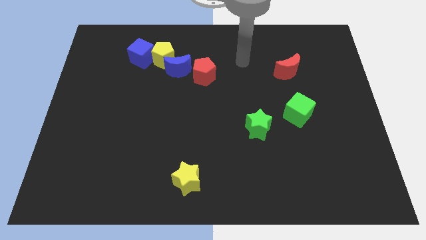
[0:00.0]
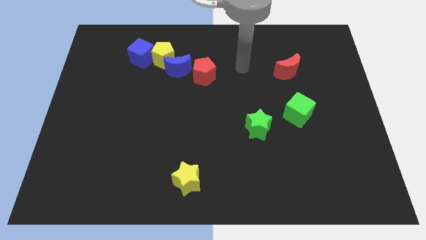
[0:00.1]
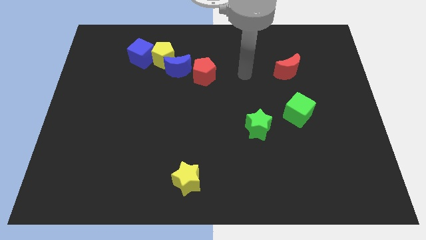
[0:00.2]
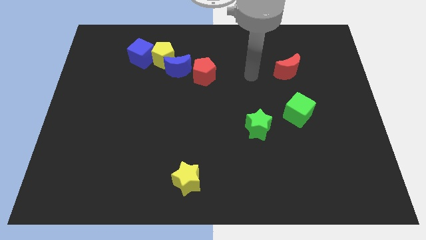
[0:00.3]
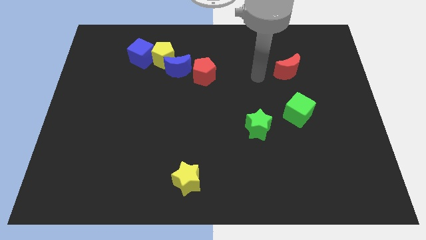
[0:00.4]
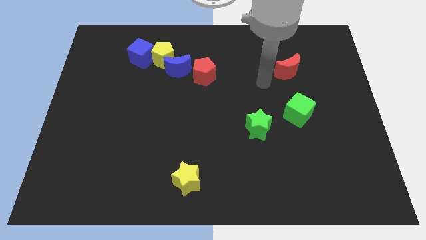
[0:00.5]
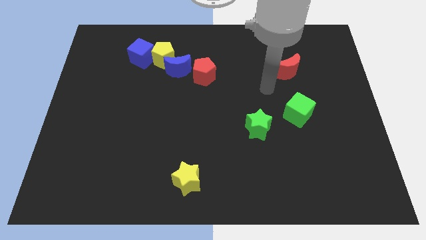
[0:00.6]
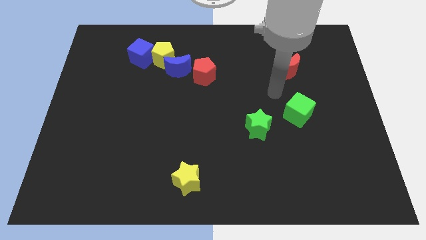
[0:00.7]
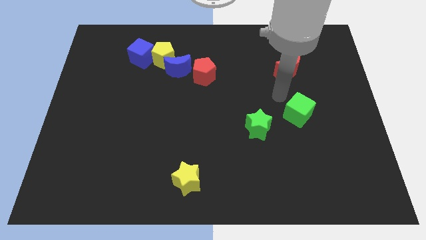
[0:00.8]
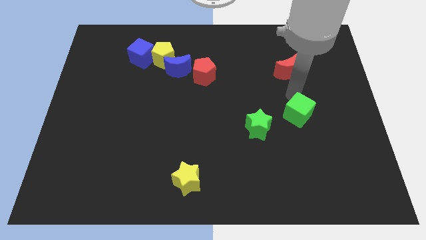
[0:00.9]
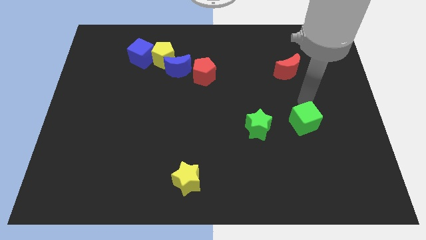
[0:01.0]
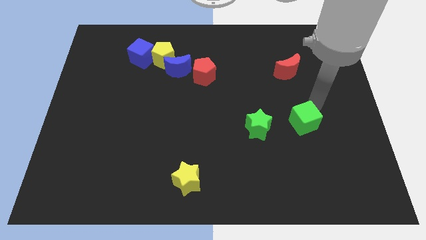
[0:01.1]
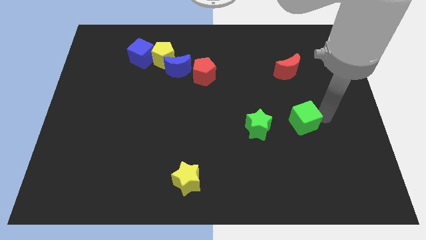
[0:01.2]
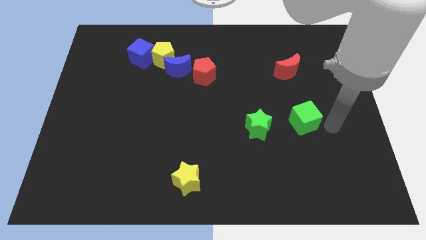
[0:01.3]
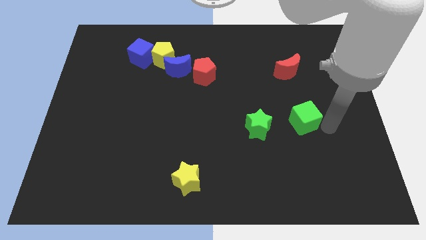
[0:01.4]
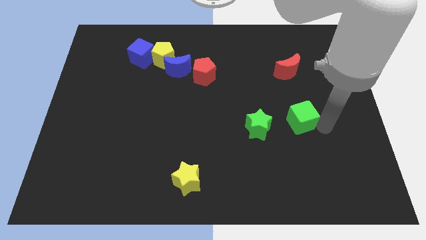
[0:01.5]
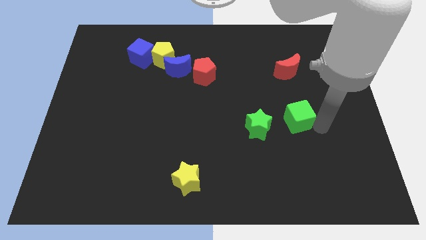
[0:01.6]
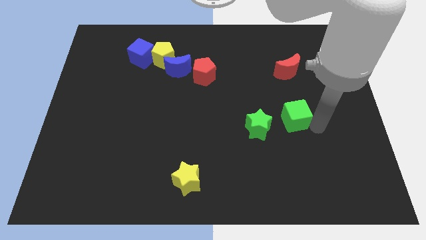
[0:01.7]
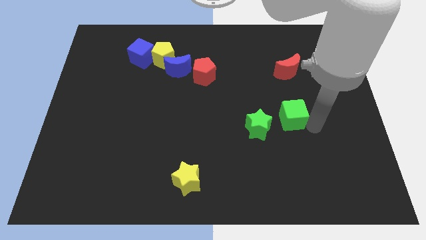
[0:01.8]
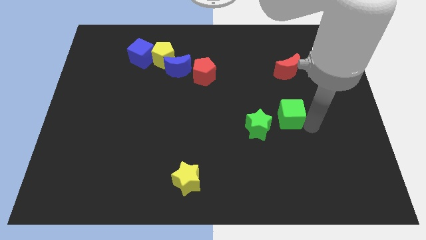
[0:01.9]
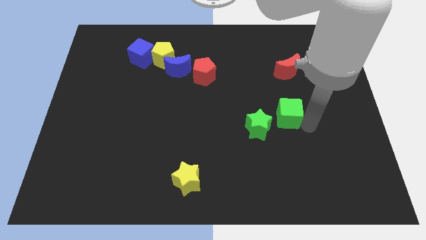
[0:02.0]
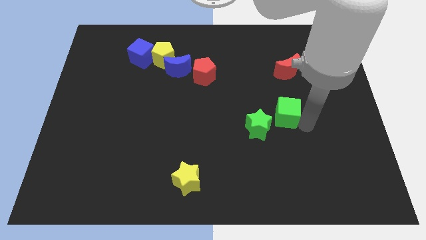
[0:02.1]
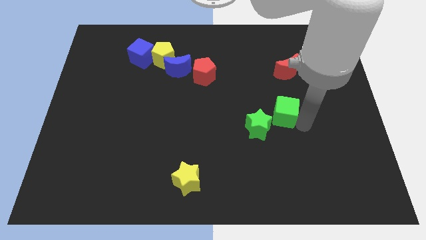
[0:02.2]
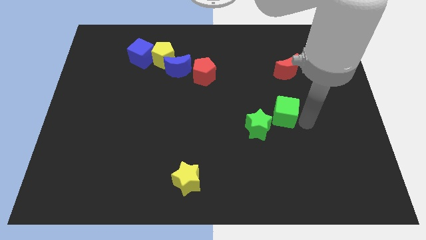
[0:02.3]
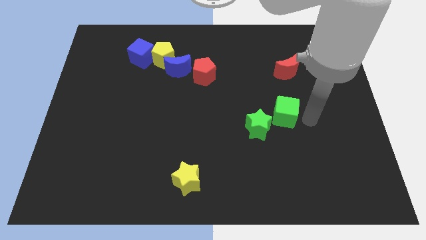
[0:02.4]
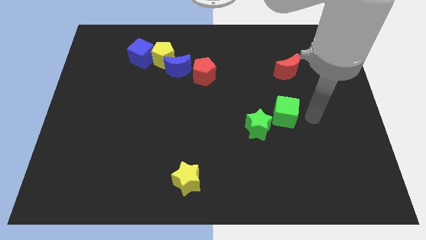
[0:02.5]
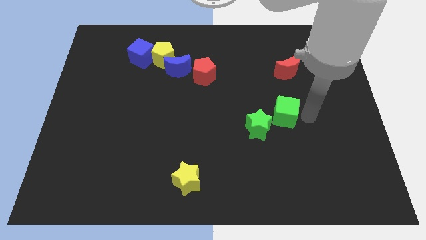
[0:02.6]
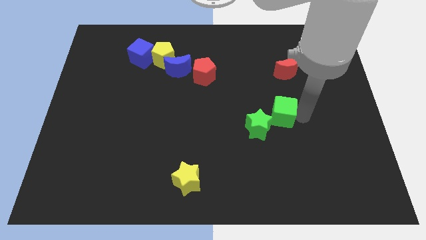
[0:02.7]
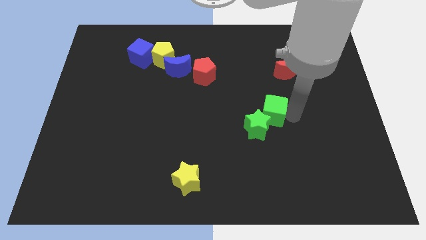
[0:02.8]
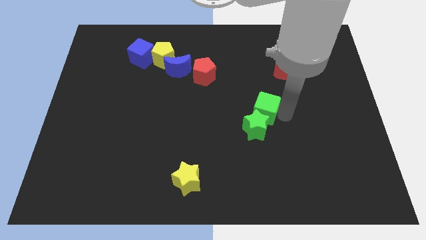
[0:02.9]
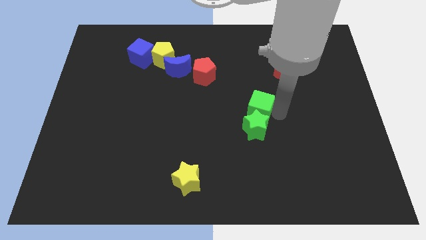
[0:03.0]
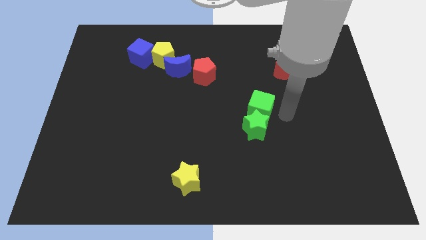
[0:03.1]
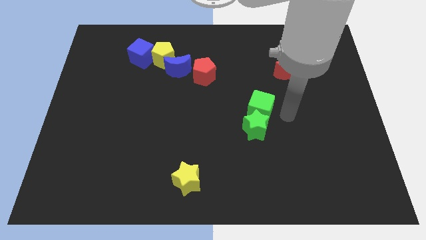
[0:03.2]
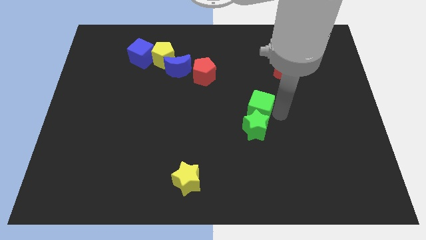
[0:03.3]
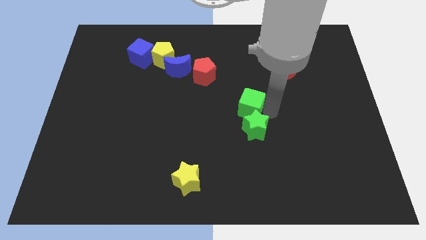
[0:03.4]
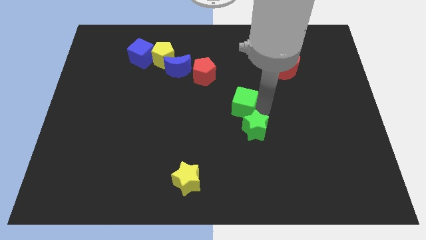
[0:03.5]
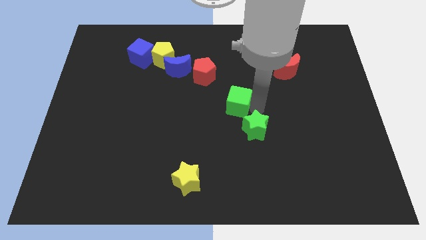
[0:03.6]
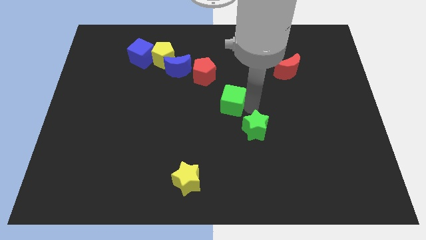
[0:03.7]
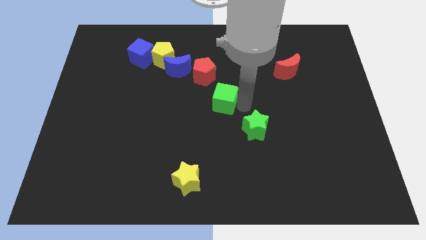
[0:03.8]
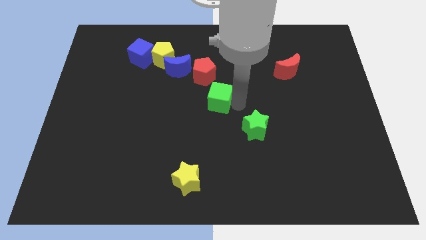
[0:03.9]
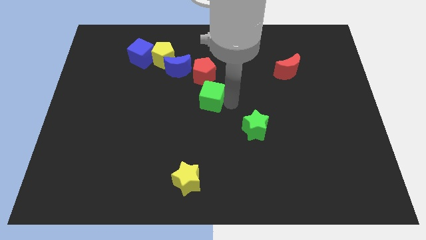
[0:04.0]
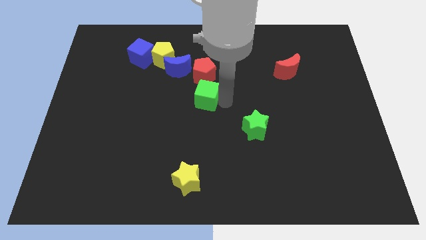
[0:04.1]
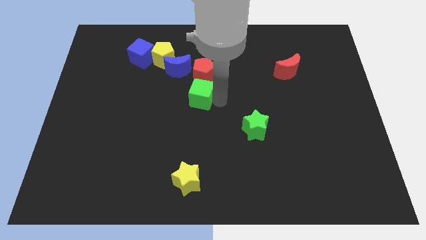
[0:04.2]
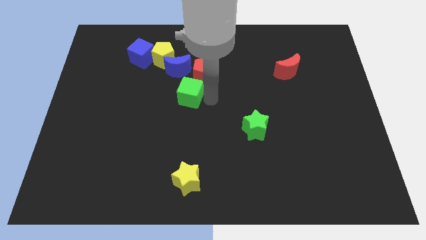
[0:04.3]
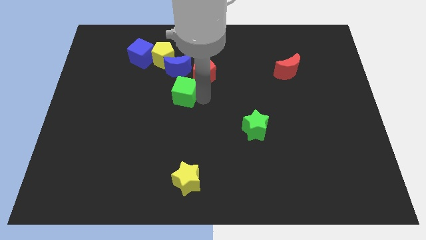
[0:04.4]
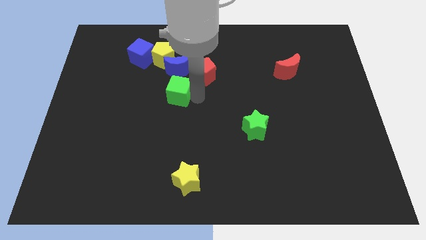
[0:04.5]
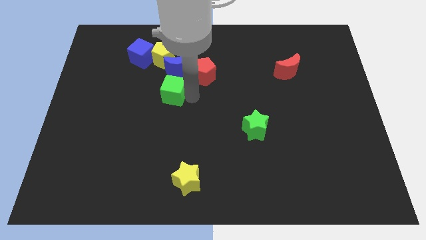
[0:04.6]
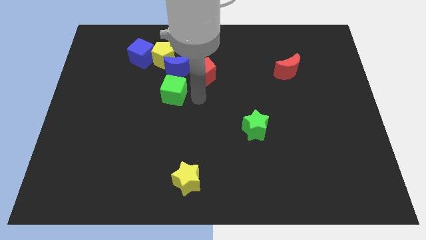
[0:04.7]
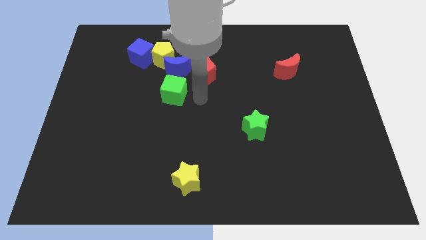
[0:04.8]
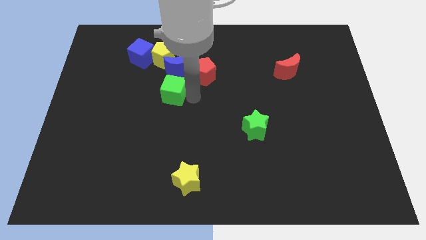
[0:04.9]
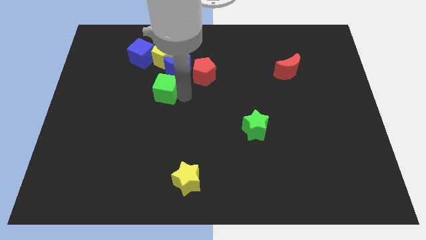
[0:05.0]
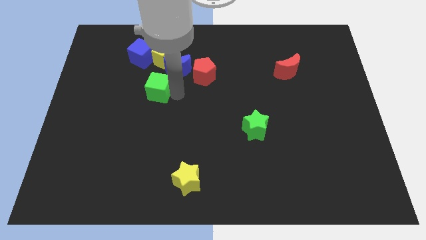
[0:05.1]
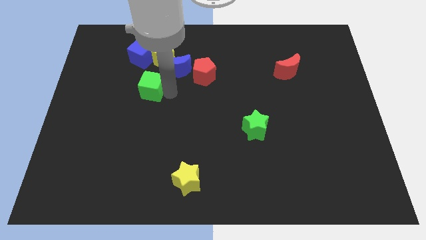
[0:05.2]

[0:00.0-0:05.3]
put the green cube to the bottom side of the blue cube

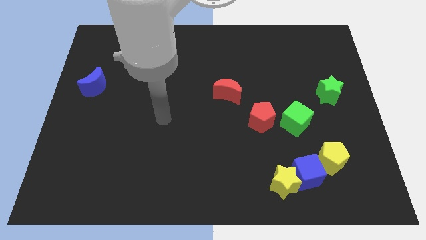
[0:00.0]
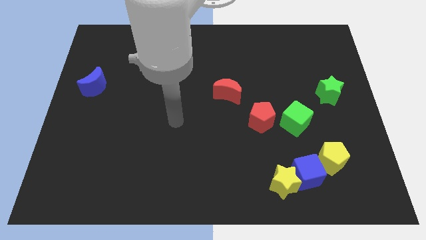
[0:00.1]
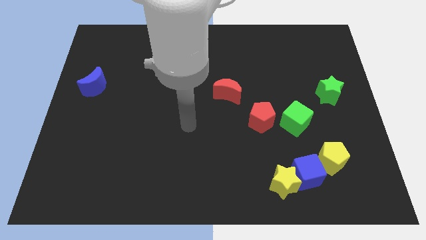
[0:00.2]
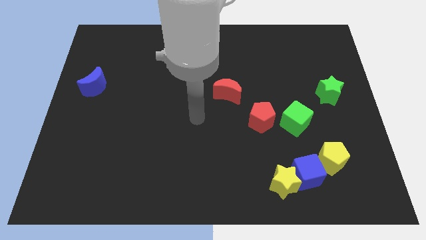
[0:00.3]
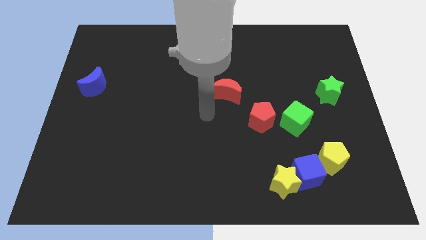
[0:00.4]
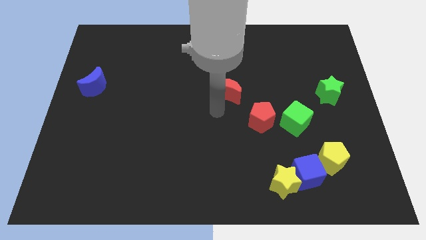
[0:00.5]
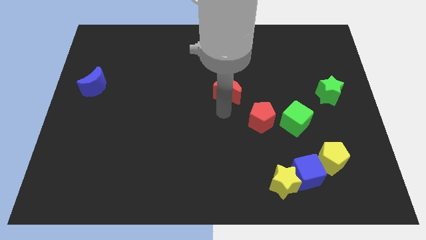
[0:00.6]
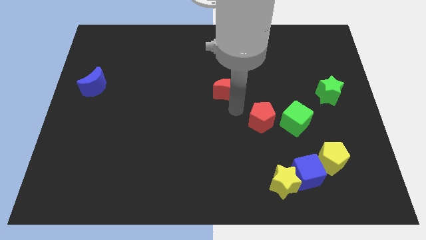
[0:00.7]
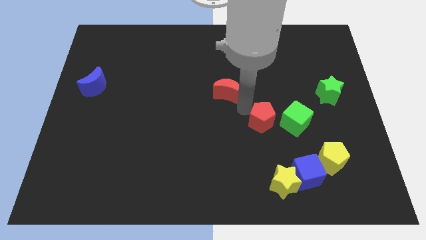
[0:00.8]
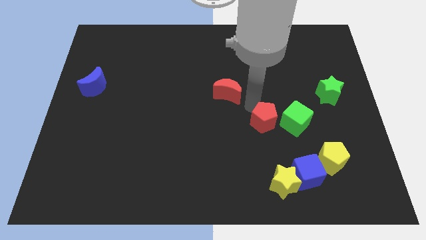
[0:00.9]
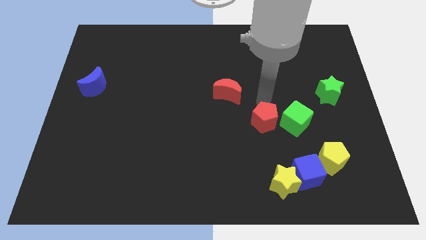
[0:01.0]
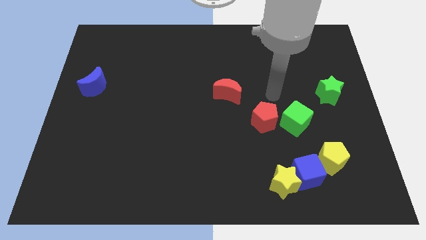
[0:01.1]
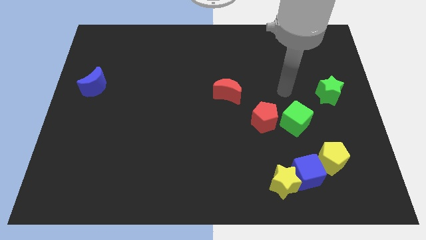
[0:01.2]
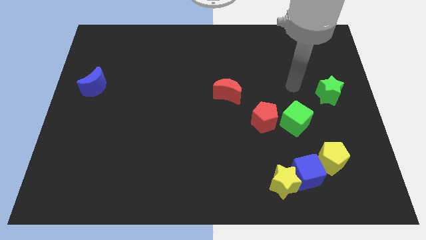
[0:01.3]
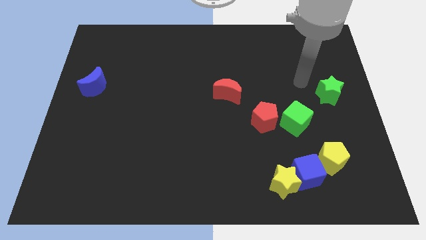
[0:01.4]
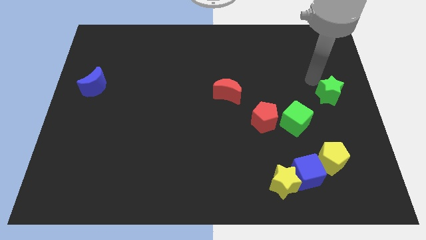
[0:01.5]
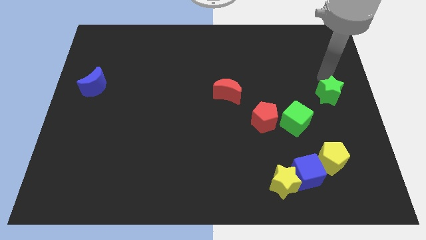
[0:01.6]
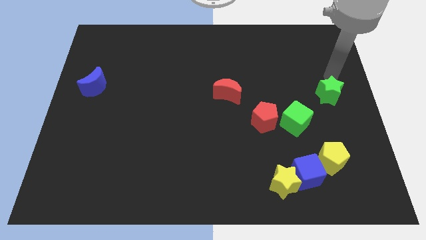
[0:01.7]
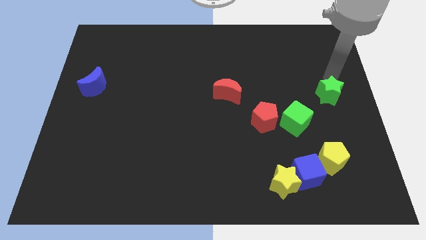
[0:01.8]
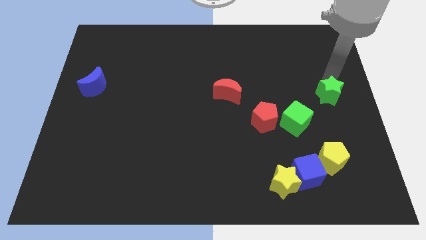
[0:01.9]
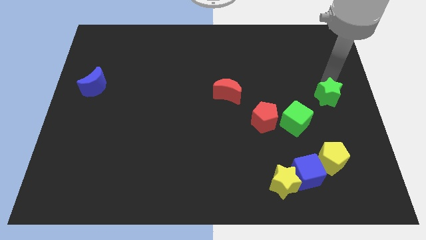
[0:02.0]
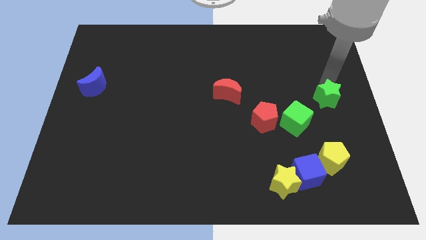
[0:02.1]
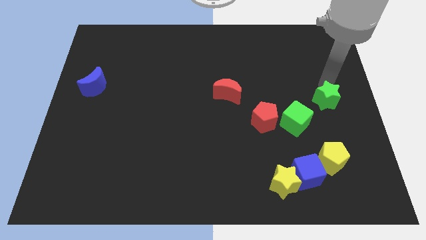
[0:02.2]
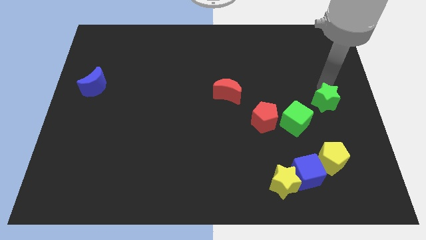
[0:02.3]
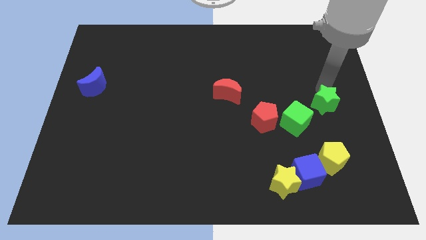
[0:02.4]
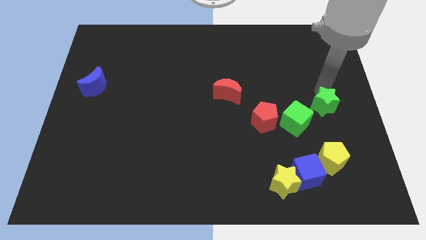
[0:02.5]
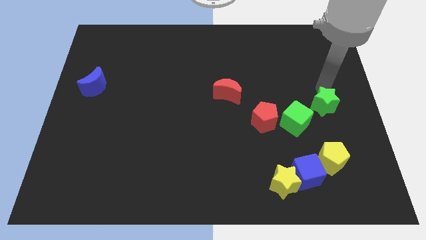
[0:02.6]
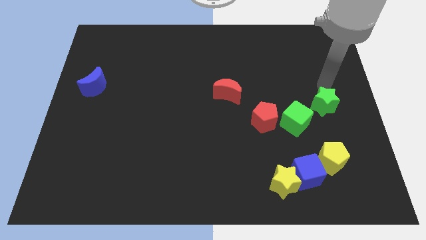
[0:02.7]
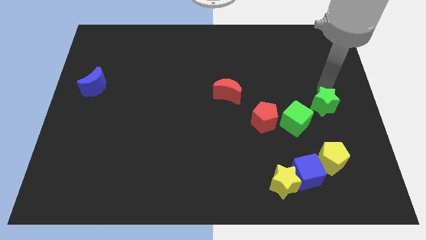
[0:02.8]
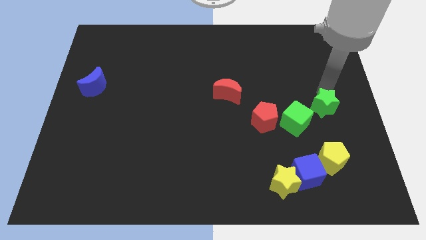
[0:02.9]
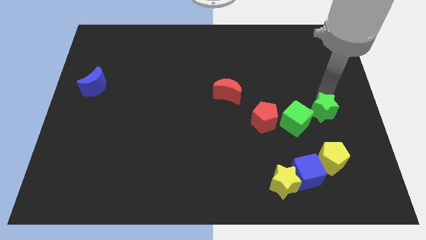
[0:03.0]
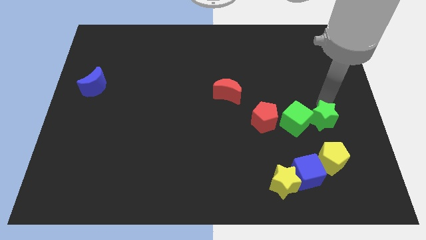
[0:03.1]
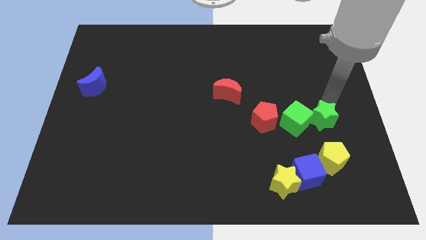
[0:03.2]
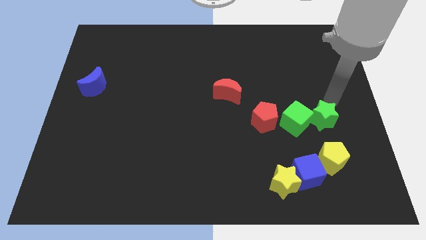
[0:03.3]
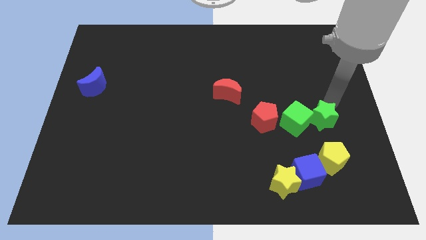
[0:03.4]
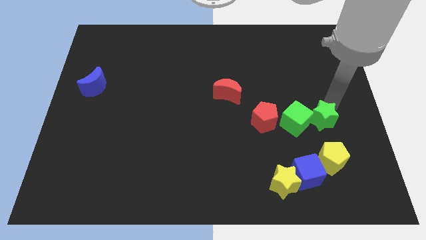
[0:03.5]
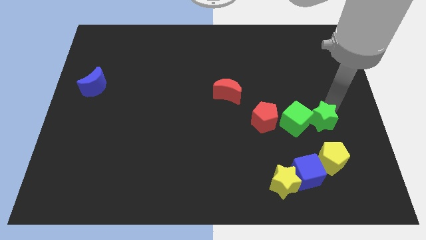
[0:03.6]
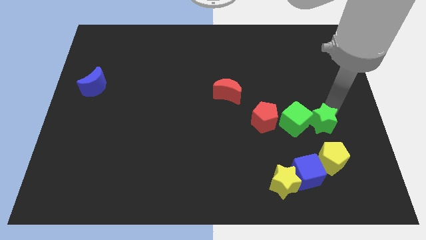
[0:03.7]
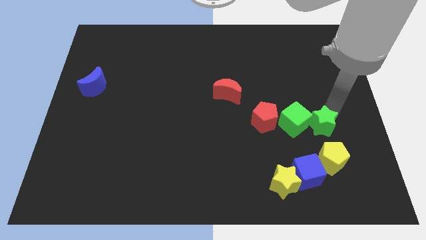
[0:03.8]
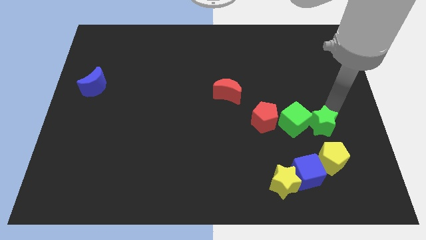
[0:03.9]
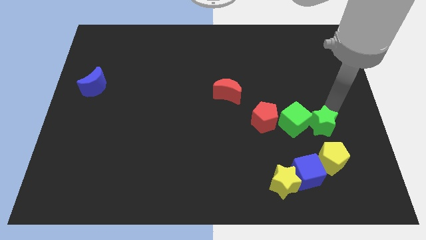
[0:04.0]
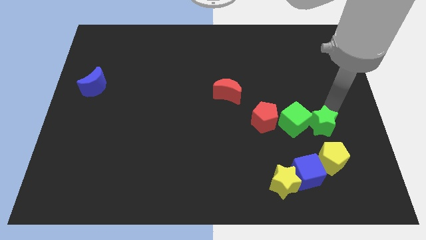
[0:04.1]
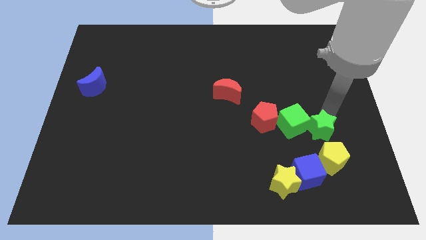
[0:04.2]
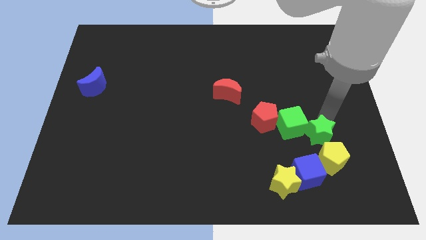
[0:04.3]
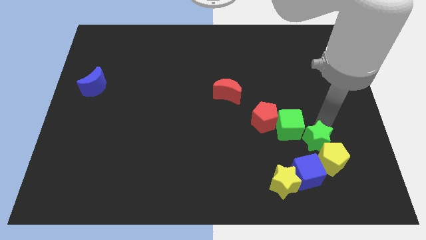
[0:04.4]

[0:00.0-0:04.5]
push the green star to the top right side of the yellow star
